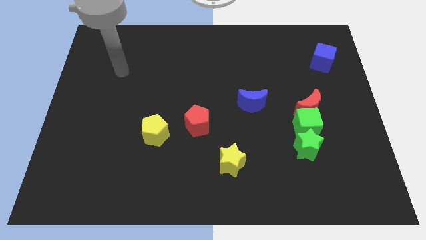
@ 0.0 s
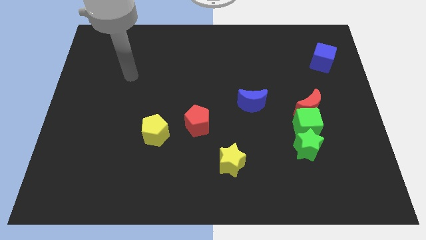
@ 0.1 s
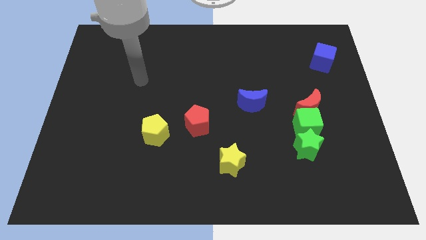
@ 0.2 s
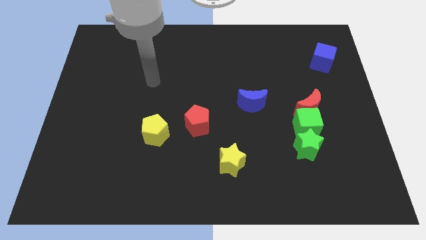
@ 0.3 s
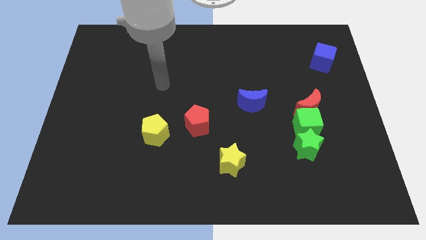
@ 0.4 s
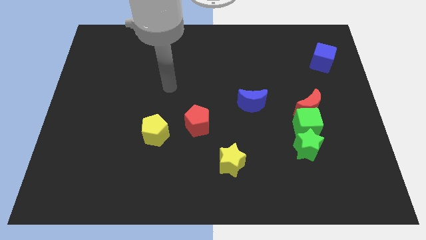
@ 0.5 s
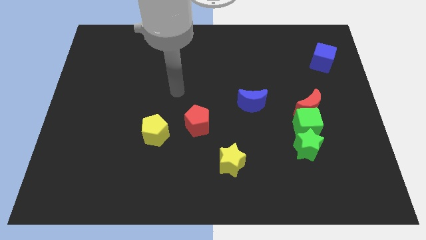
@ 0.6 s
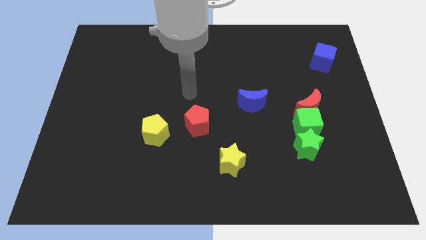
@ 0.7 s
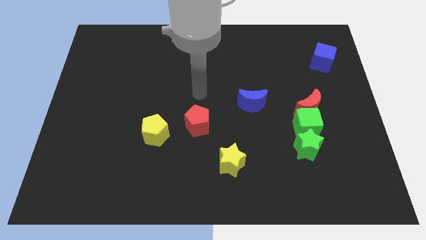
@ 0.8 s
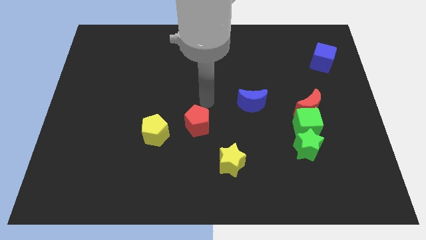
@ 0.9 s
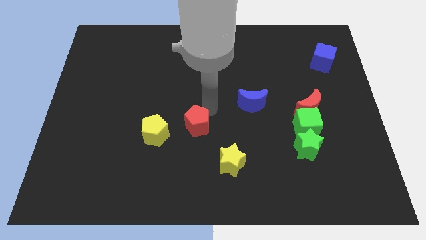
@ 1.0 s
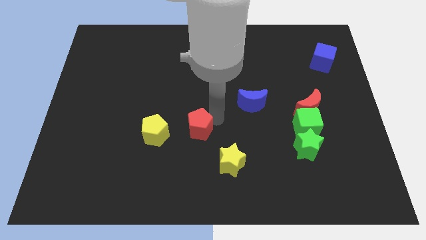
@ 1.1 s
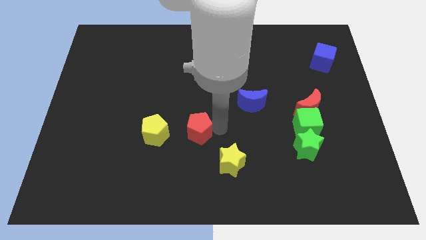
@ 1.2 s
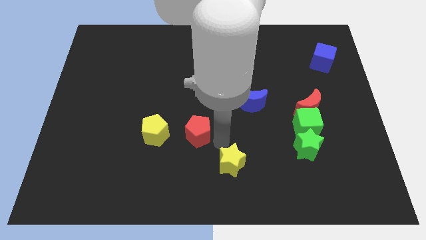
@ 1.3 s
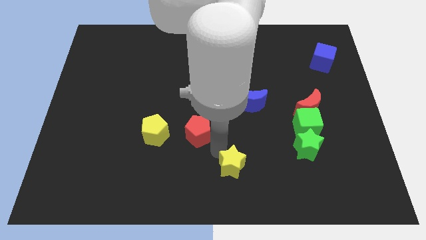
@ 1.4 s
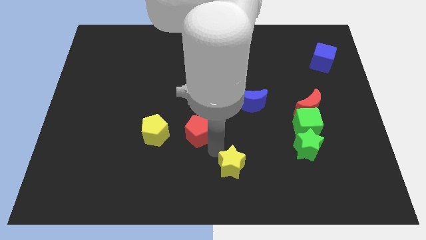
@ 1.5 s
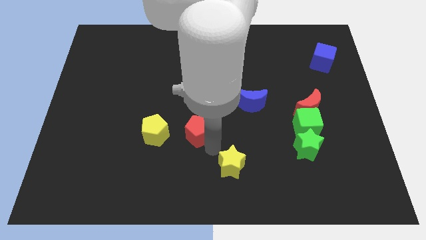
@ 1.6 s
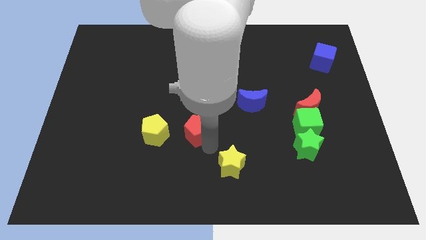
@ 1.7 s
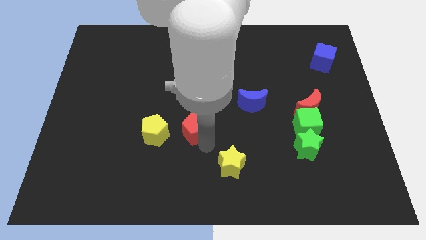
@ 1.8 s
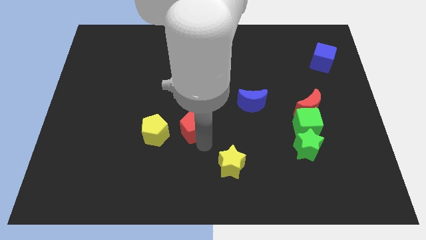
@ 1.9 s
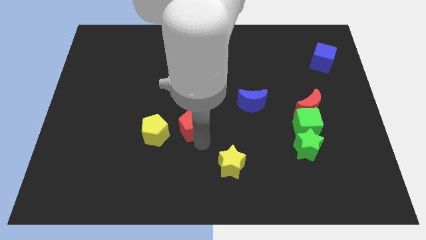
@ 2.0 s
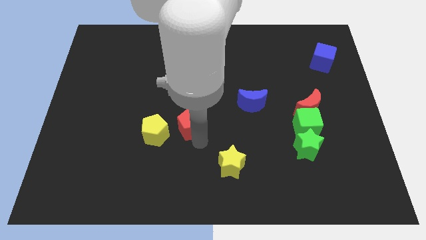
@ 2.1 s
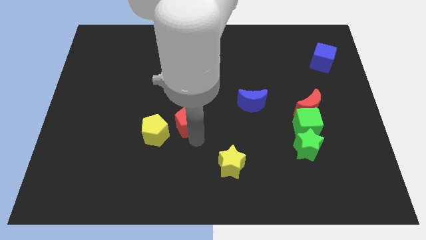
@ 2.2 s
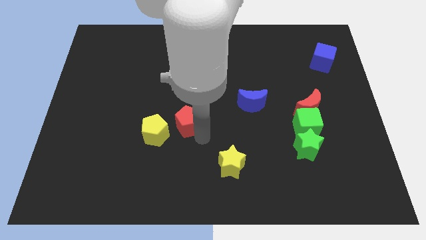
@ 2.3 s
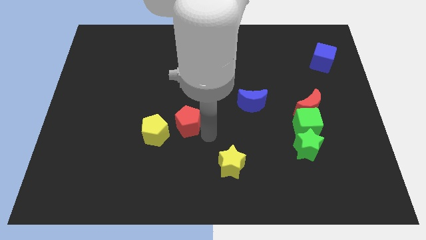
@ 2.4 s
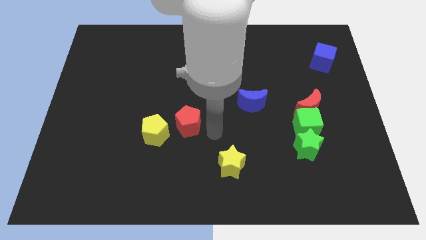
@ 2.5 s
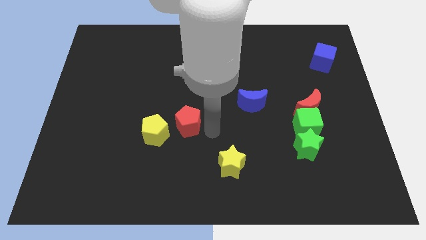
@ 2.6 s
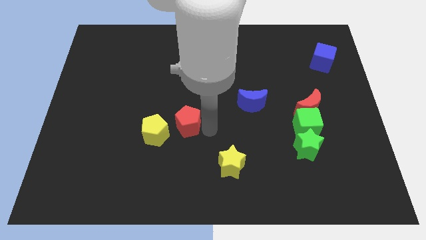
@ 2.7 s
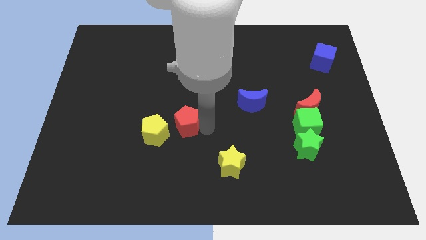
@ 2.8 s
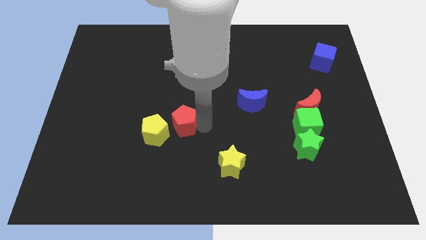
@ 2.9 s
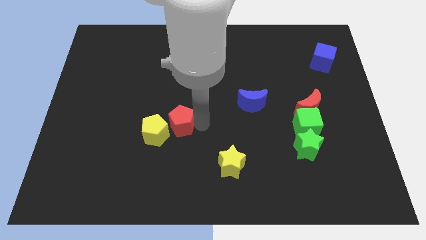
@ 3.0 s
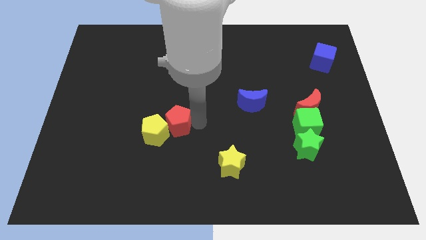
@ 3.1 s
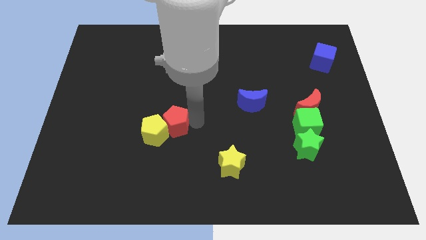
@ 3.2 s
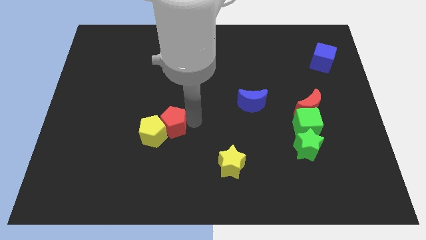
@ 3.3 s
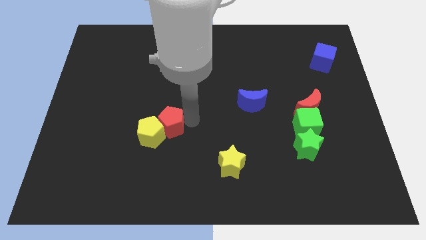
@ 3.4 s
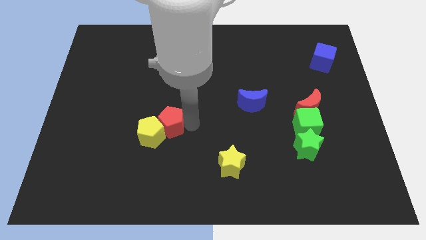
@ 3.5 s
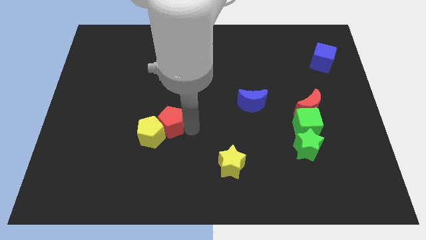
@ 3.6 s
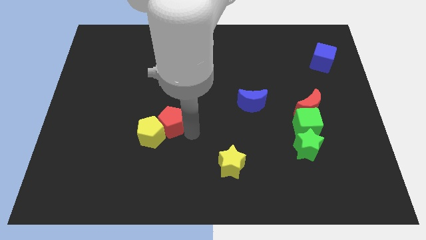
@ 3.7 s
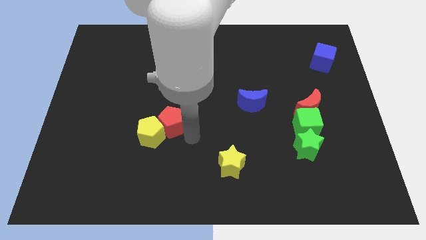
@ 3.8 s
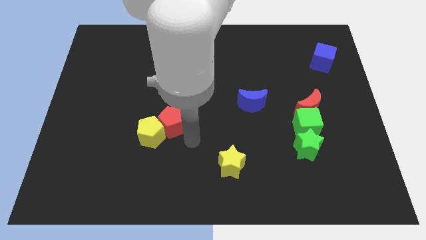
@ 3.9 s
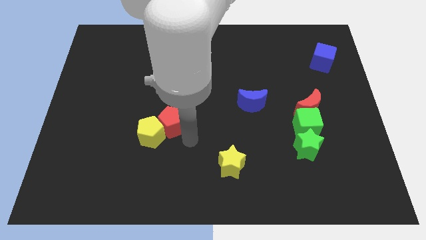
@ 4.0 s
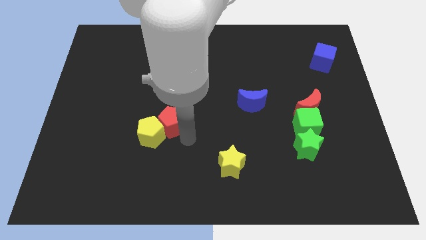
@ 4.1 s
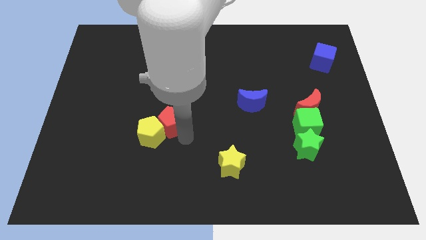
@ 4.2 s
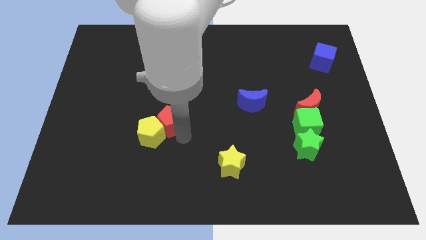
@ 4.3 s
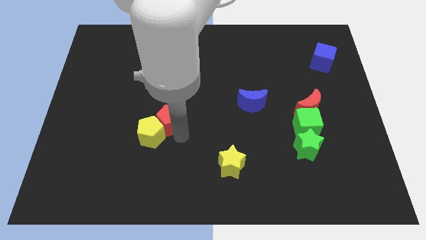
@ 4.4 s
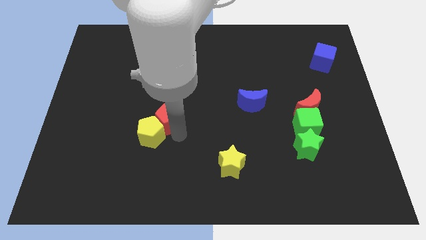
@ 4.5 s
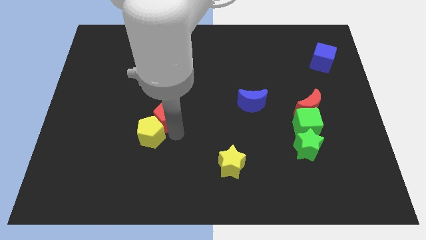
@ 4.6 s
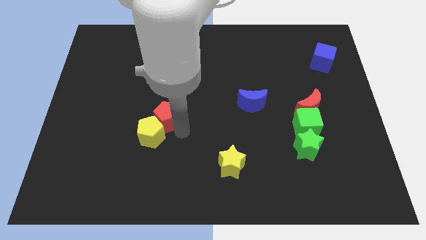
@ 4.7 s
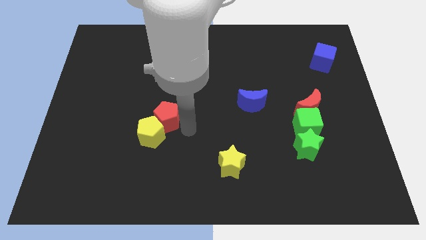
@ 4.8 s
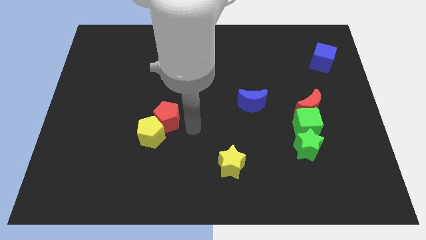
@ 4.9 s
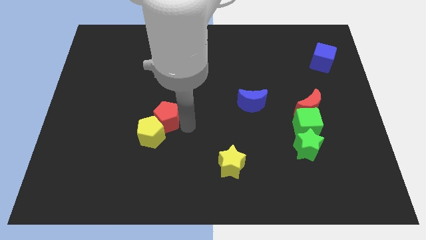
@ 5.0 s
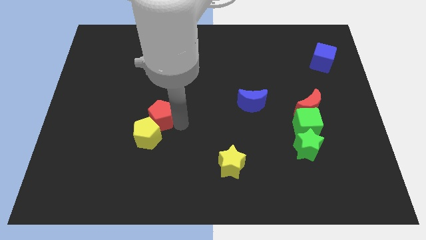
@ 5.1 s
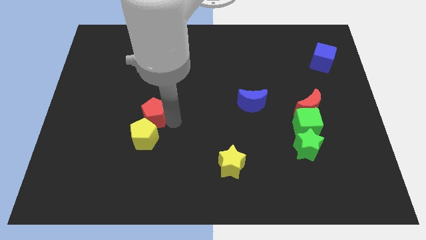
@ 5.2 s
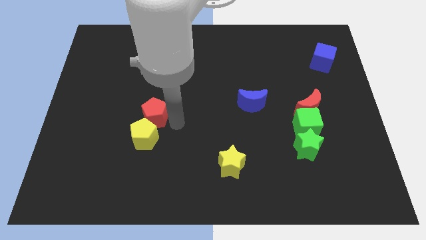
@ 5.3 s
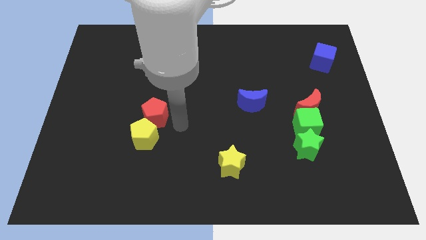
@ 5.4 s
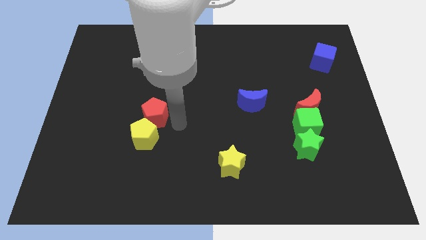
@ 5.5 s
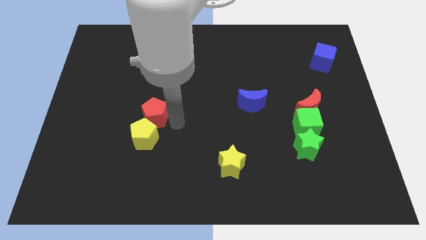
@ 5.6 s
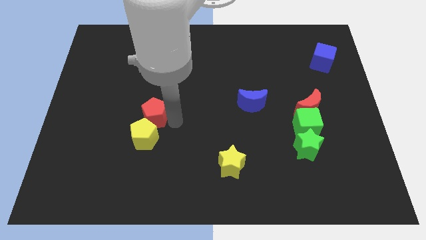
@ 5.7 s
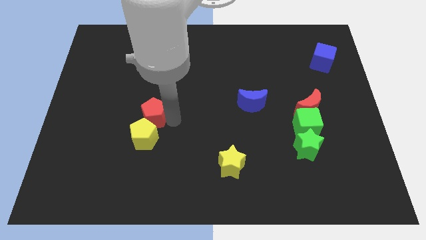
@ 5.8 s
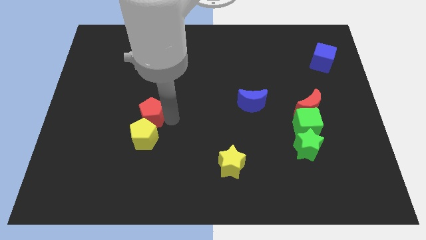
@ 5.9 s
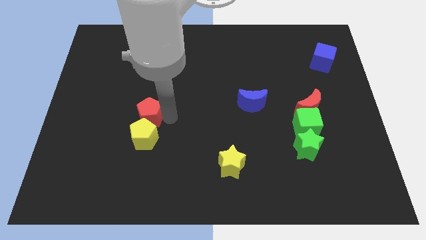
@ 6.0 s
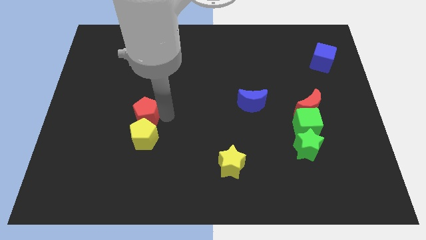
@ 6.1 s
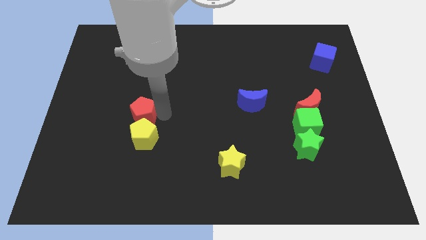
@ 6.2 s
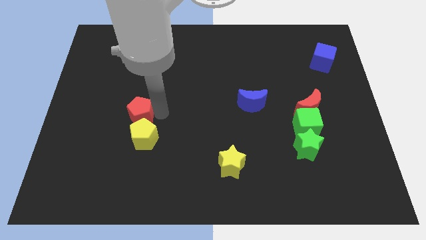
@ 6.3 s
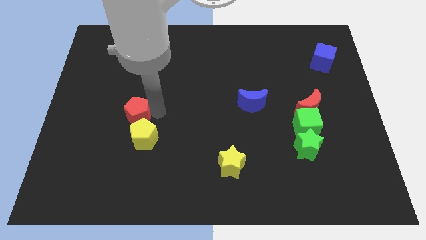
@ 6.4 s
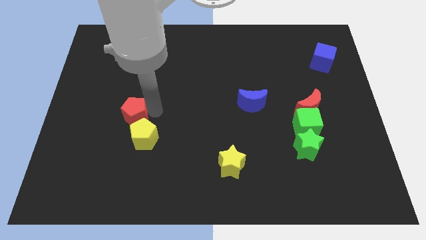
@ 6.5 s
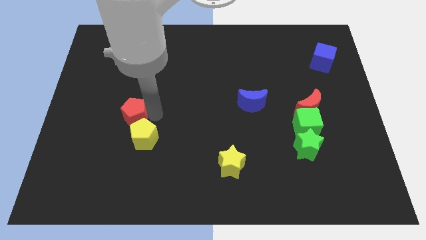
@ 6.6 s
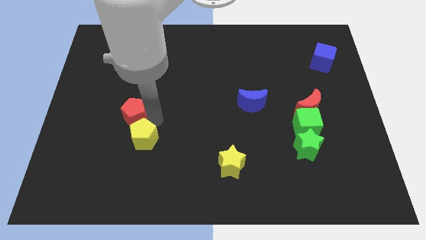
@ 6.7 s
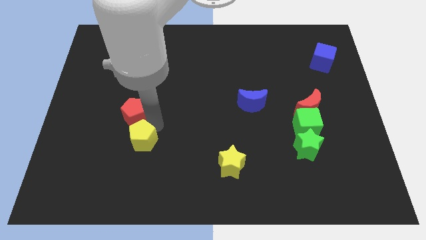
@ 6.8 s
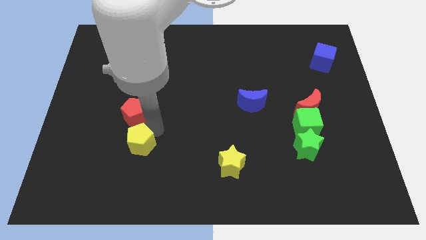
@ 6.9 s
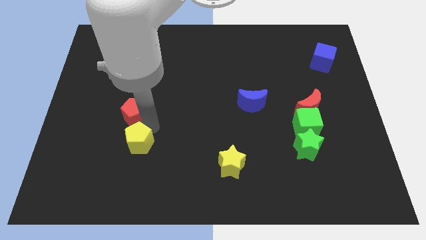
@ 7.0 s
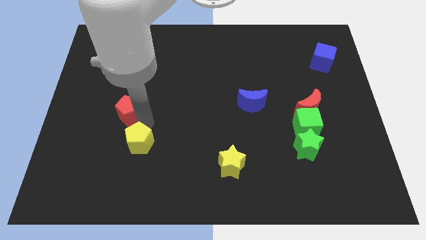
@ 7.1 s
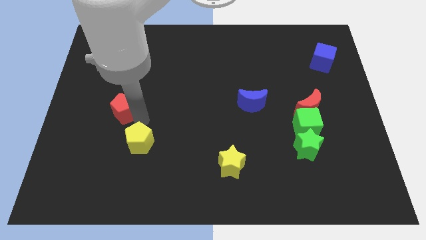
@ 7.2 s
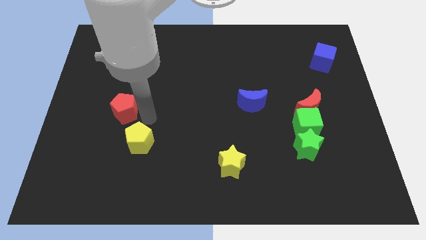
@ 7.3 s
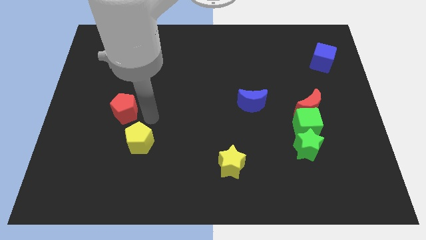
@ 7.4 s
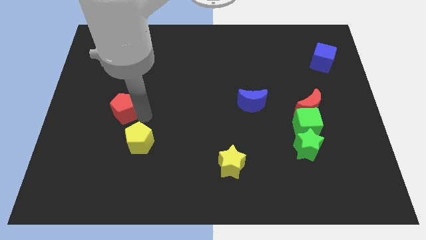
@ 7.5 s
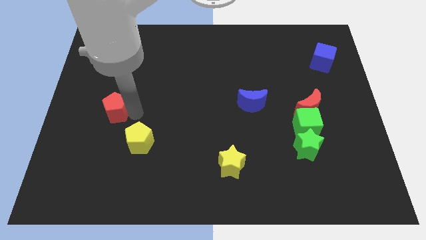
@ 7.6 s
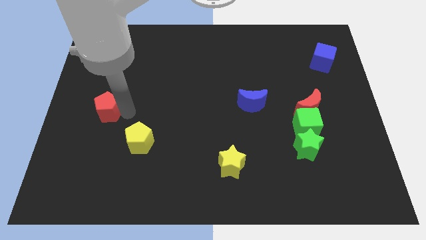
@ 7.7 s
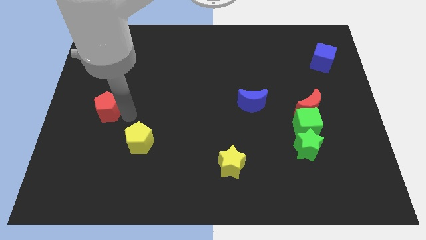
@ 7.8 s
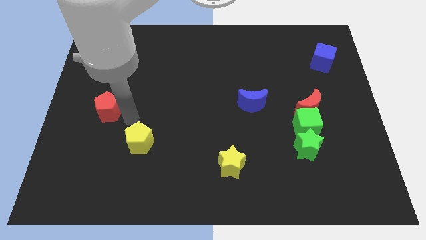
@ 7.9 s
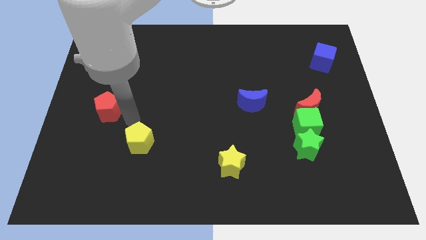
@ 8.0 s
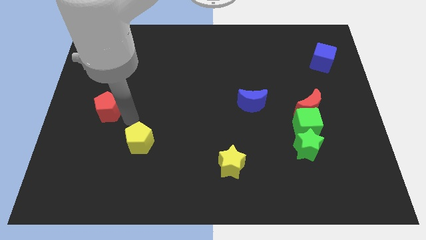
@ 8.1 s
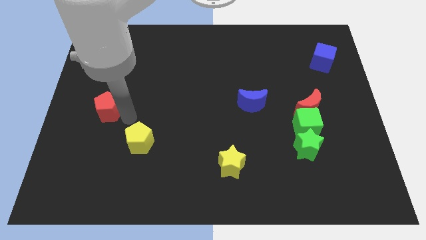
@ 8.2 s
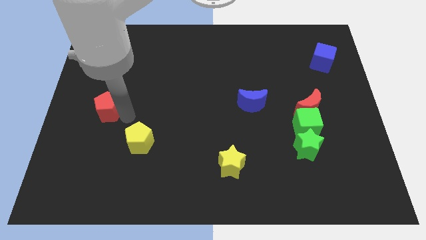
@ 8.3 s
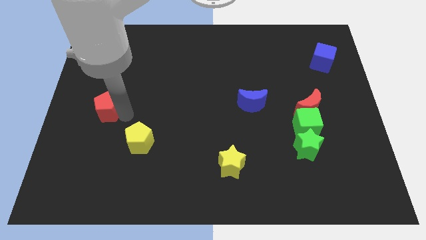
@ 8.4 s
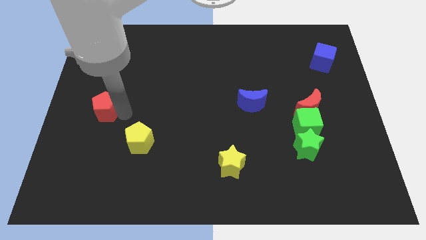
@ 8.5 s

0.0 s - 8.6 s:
push the red pentagon to the left side of the board
